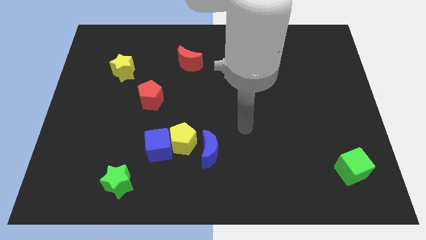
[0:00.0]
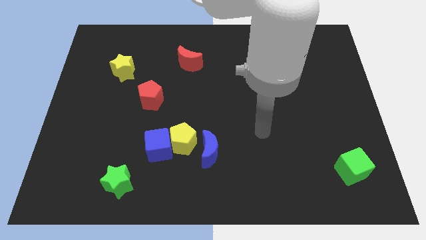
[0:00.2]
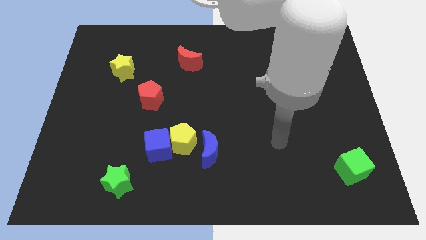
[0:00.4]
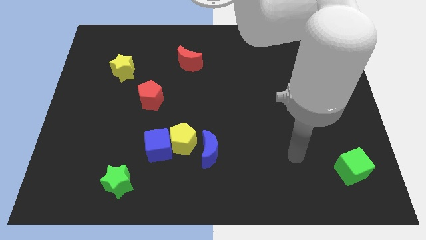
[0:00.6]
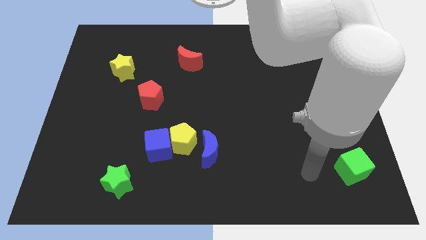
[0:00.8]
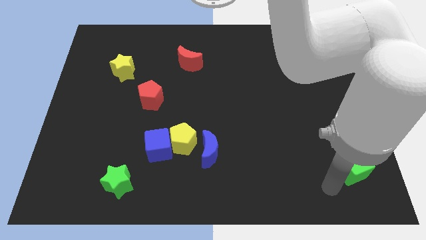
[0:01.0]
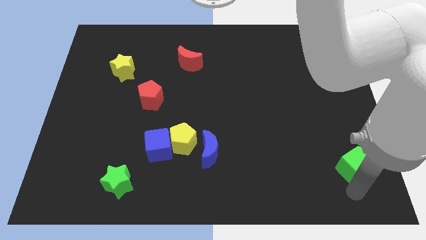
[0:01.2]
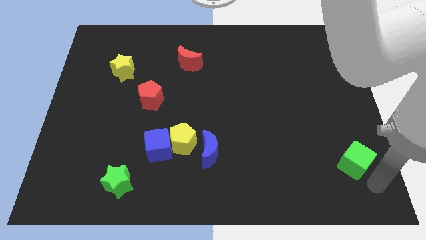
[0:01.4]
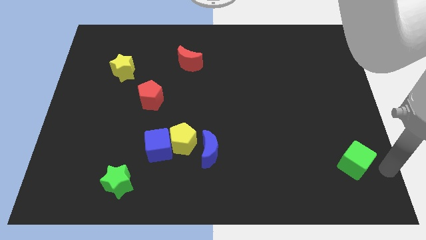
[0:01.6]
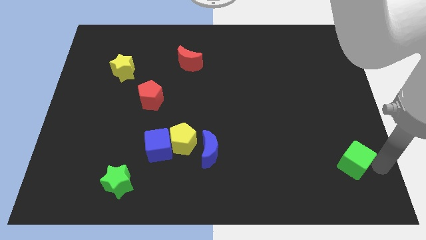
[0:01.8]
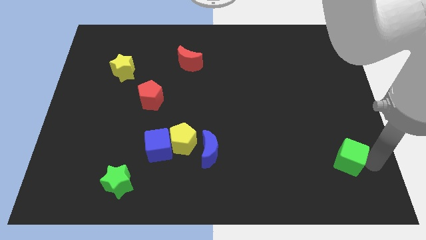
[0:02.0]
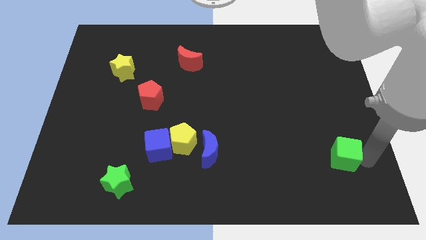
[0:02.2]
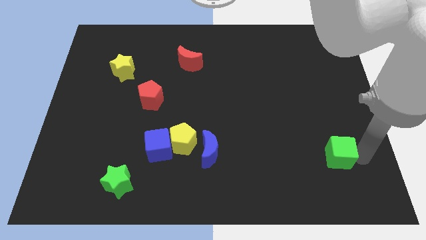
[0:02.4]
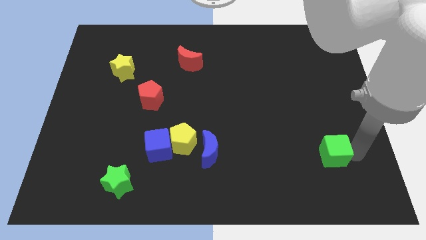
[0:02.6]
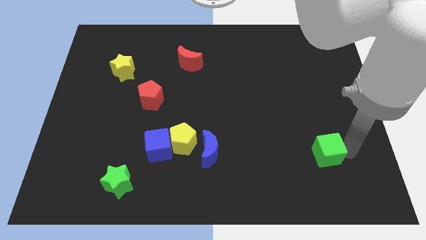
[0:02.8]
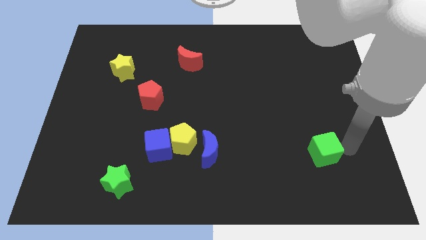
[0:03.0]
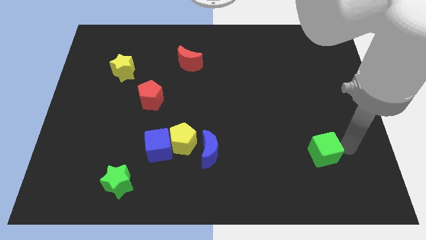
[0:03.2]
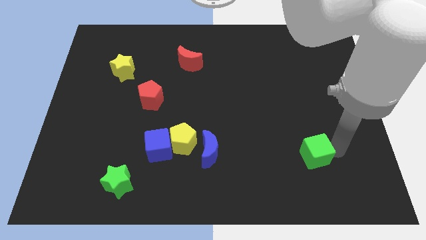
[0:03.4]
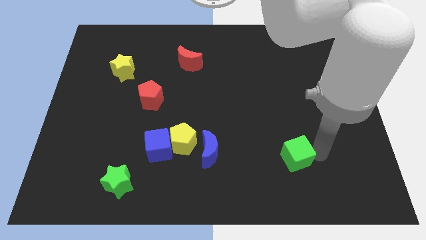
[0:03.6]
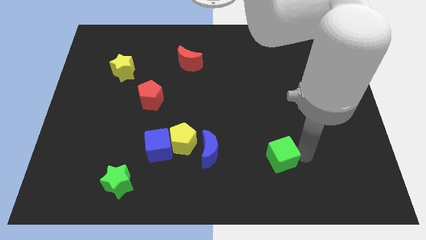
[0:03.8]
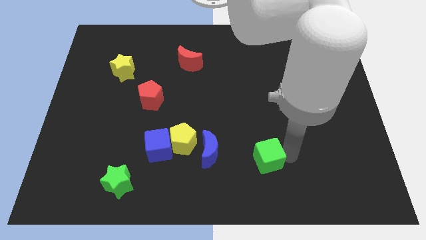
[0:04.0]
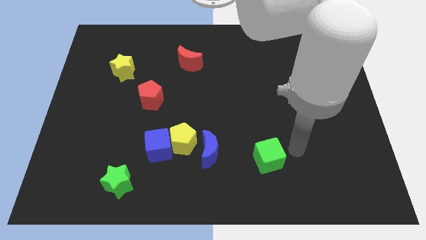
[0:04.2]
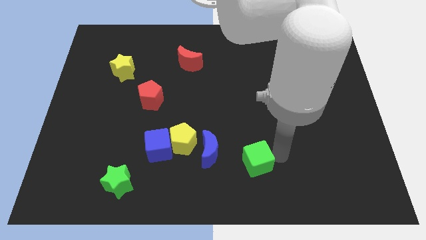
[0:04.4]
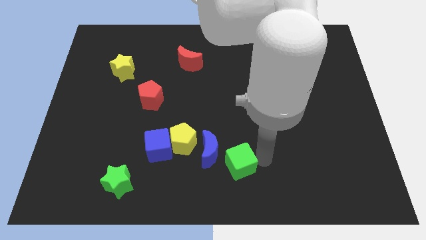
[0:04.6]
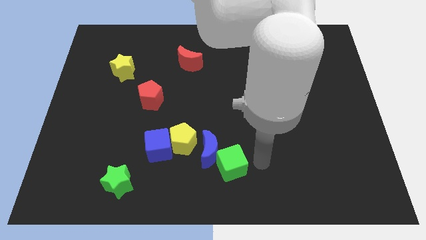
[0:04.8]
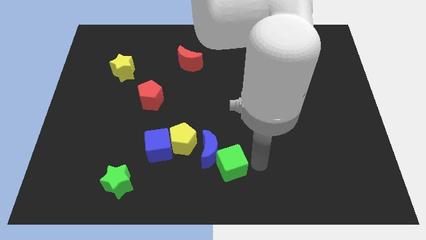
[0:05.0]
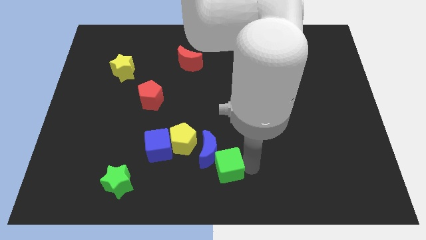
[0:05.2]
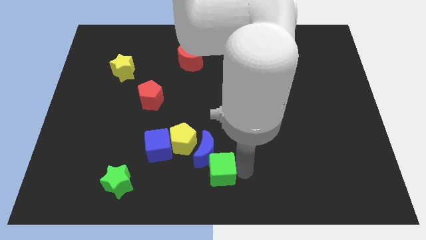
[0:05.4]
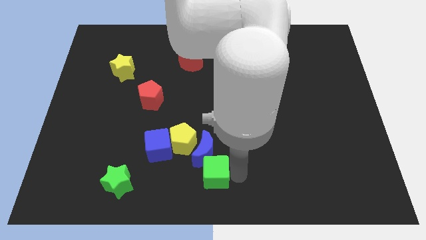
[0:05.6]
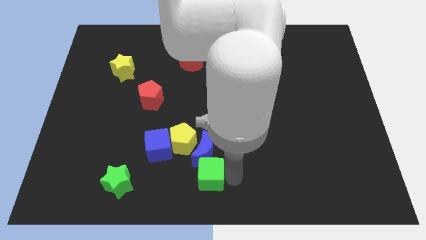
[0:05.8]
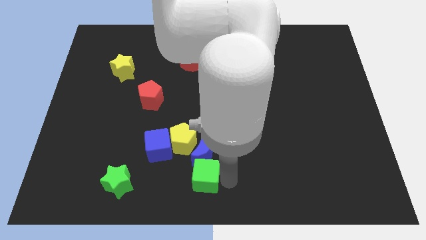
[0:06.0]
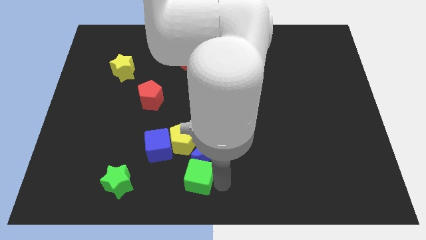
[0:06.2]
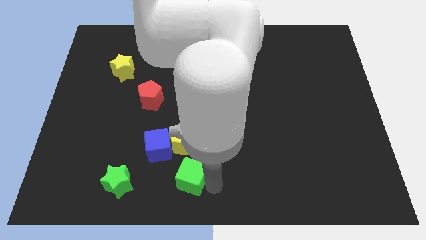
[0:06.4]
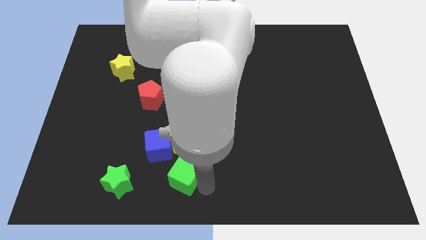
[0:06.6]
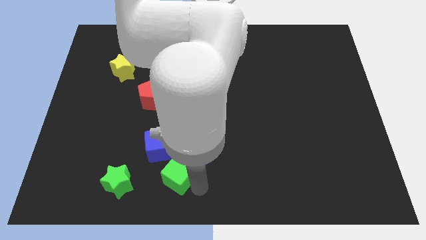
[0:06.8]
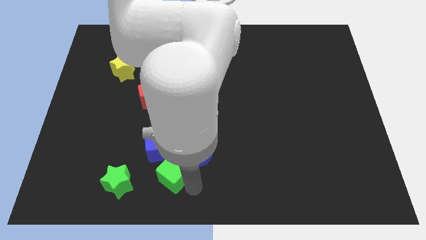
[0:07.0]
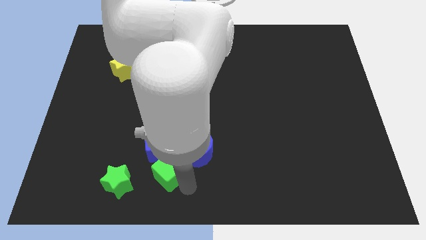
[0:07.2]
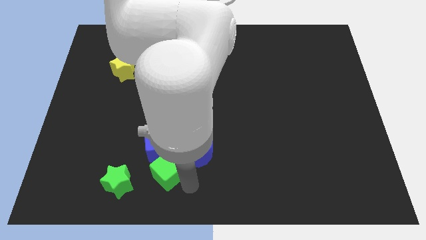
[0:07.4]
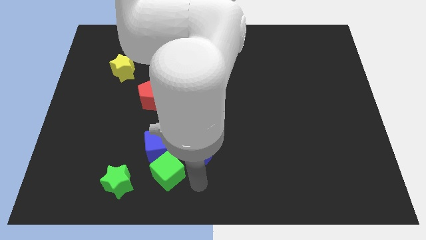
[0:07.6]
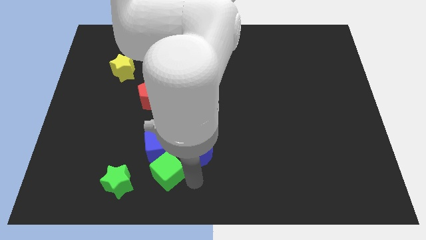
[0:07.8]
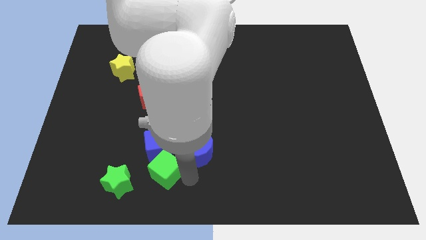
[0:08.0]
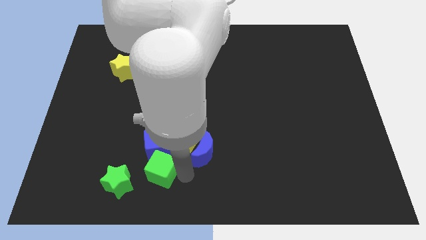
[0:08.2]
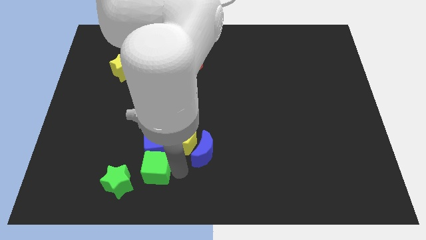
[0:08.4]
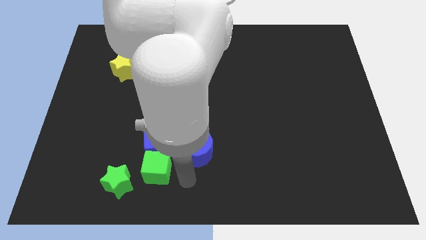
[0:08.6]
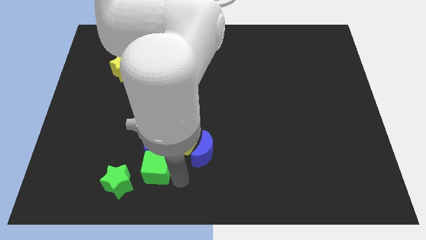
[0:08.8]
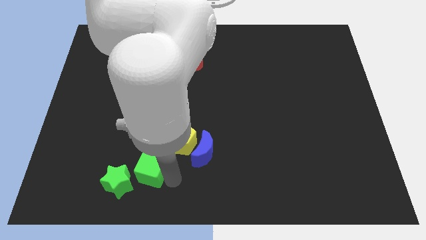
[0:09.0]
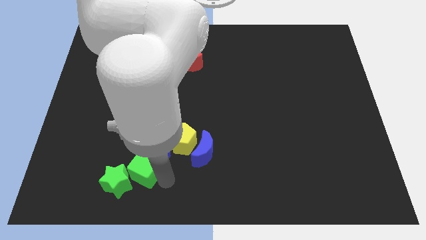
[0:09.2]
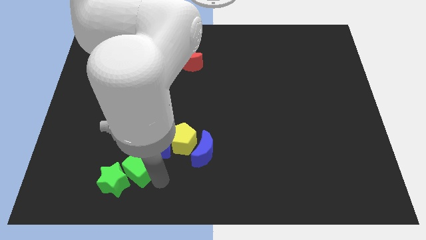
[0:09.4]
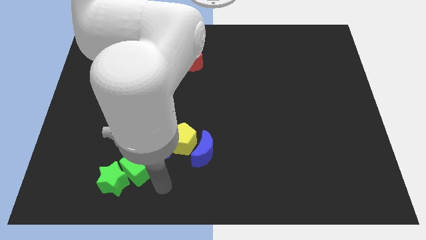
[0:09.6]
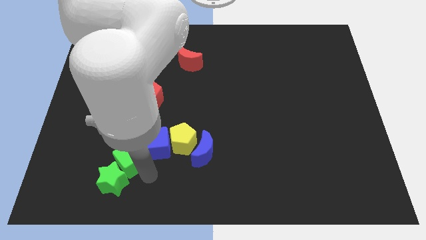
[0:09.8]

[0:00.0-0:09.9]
put the green cube to the left of the blue cube

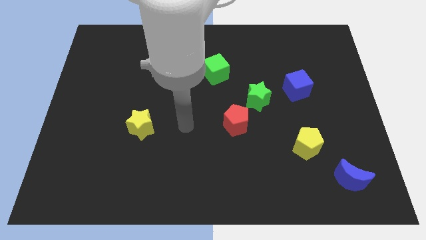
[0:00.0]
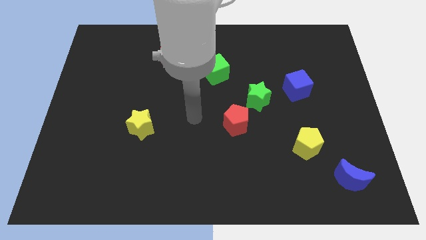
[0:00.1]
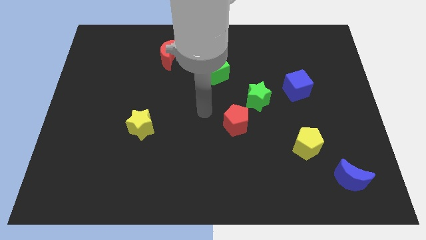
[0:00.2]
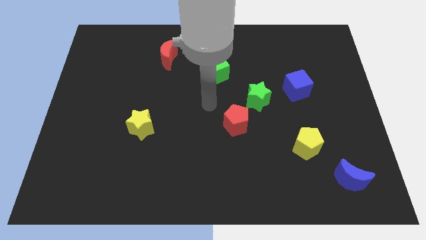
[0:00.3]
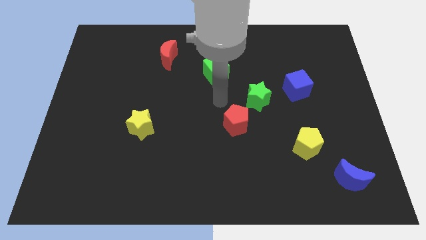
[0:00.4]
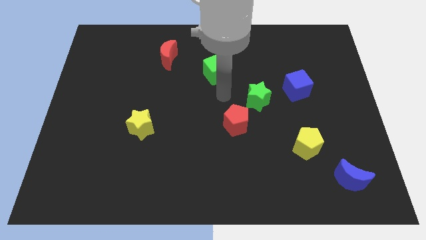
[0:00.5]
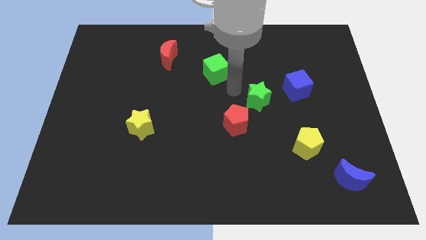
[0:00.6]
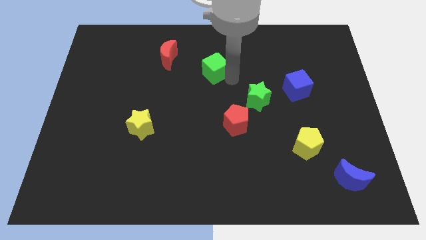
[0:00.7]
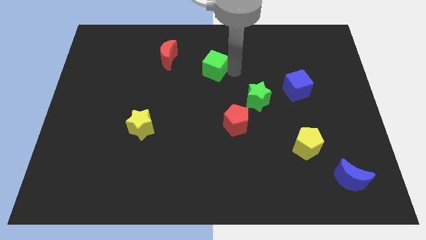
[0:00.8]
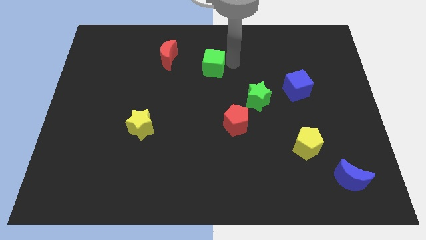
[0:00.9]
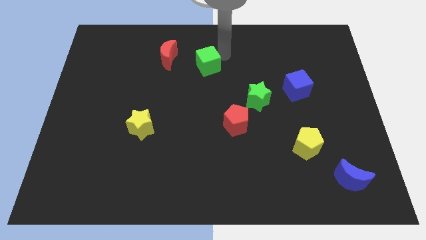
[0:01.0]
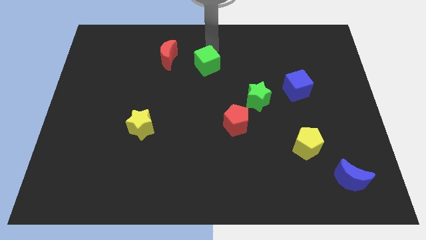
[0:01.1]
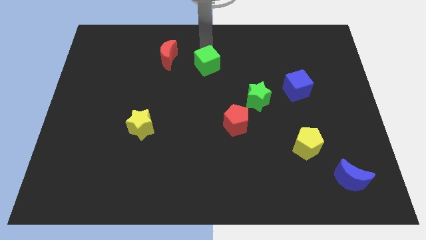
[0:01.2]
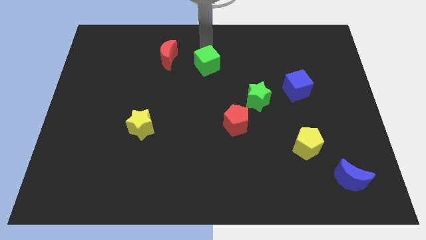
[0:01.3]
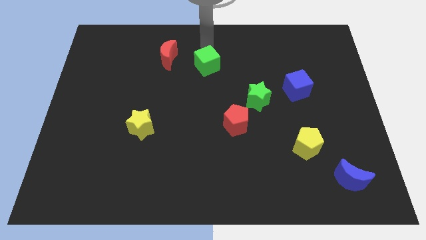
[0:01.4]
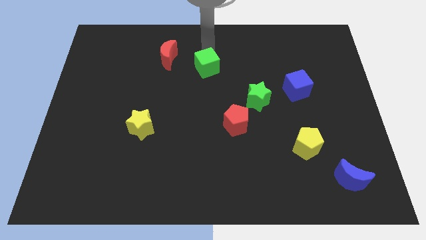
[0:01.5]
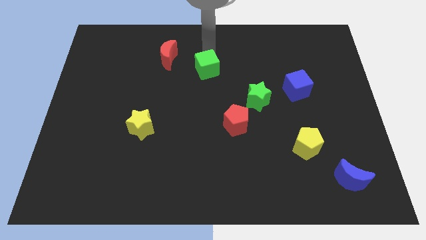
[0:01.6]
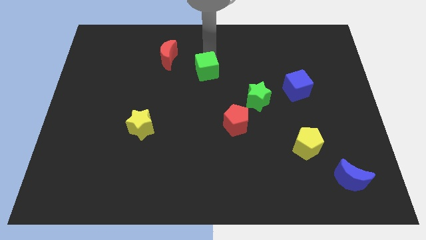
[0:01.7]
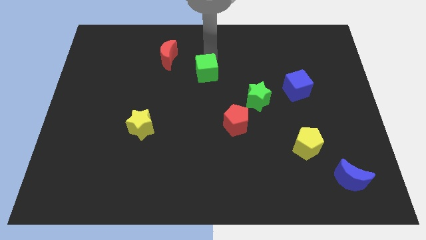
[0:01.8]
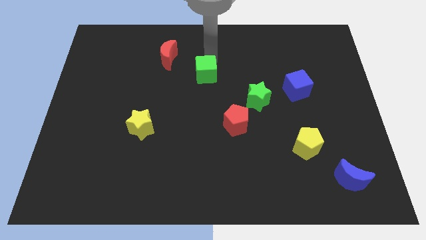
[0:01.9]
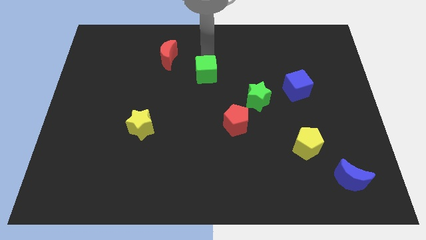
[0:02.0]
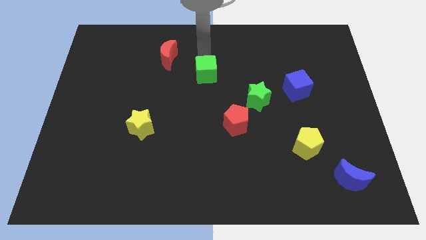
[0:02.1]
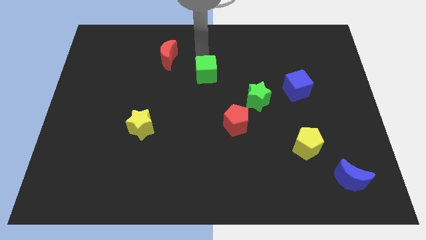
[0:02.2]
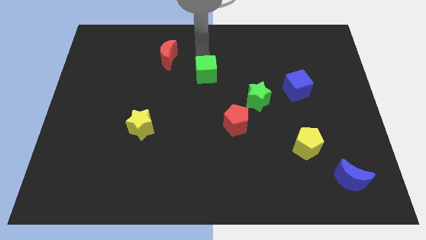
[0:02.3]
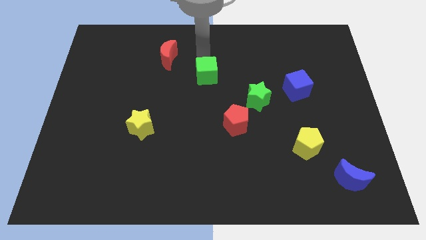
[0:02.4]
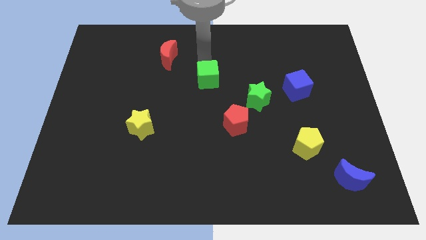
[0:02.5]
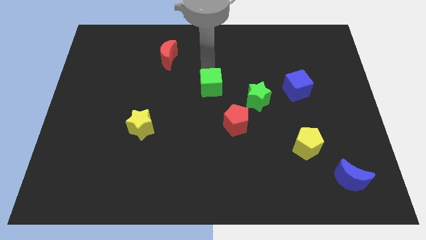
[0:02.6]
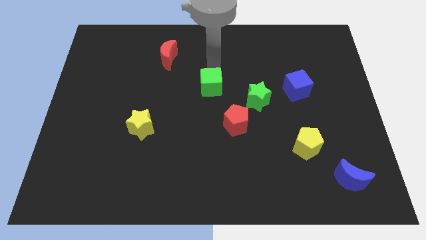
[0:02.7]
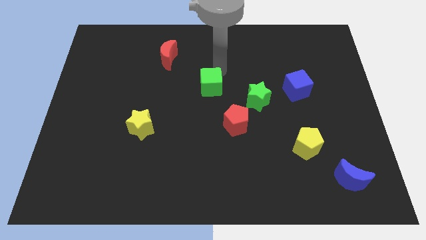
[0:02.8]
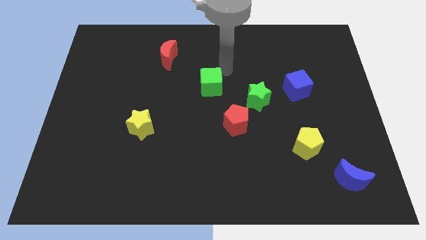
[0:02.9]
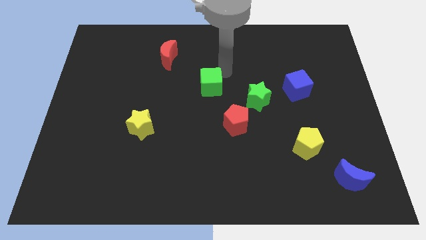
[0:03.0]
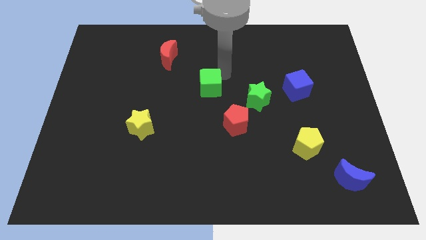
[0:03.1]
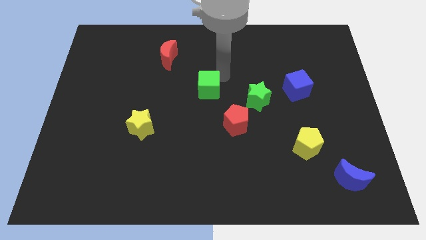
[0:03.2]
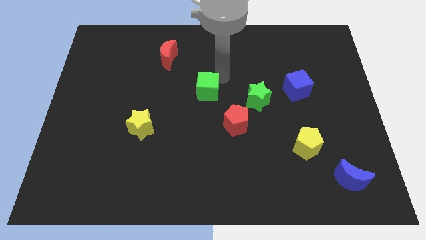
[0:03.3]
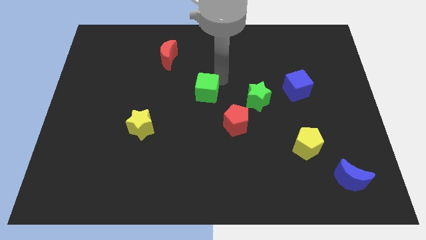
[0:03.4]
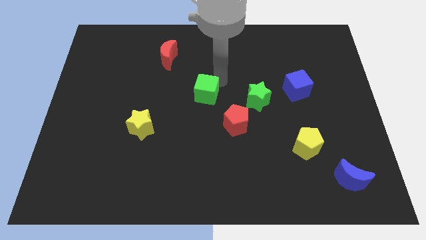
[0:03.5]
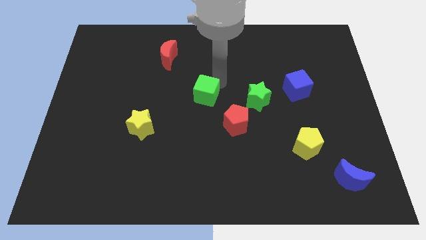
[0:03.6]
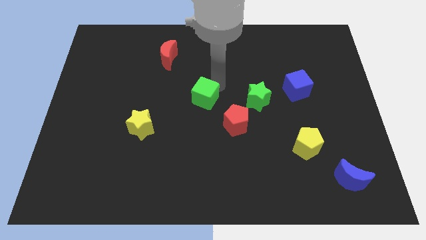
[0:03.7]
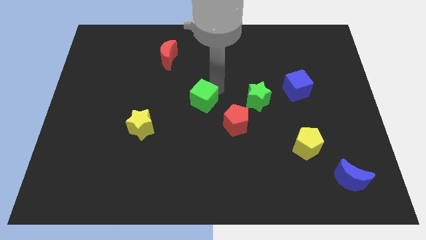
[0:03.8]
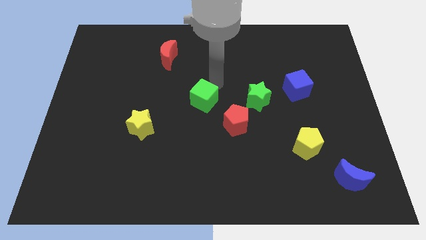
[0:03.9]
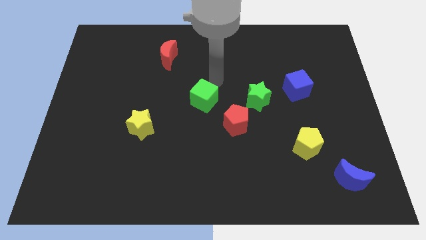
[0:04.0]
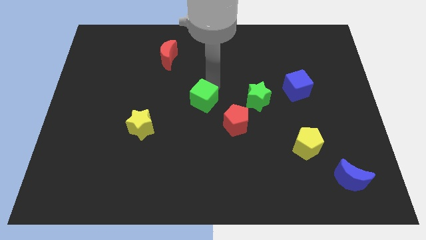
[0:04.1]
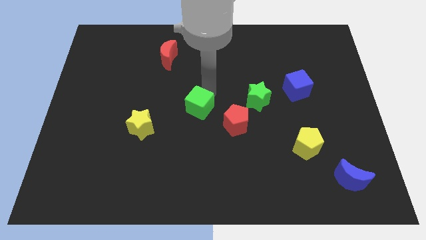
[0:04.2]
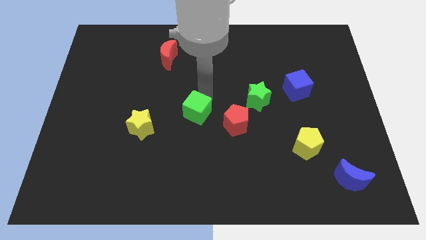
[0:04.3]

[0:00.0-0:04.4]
move the green cube to the right of the yellow star
